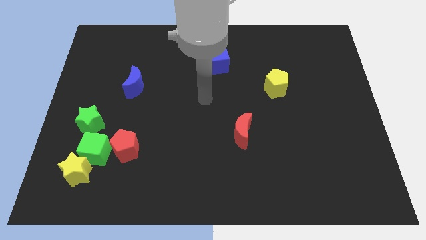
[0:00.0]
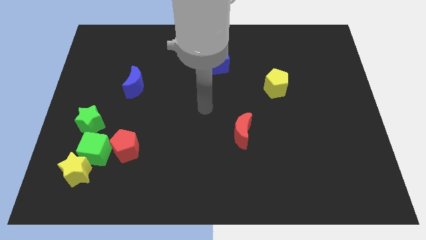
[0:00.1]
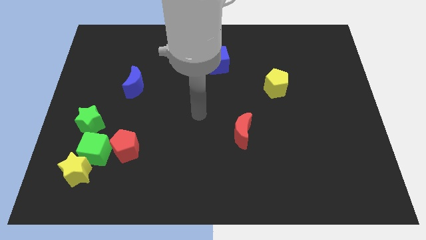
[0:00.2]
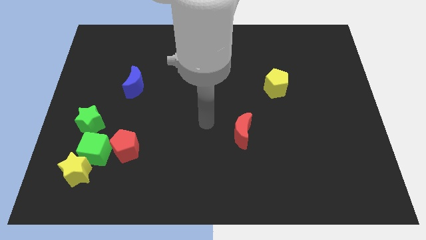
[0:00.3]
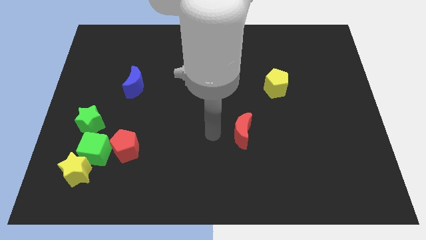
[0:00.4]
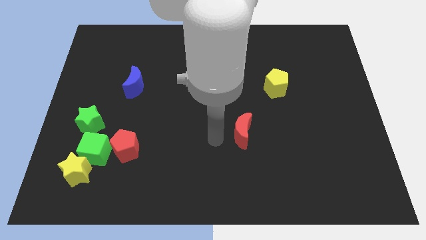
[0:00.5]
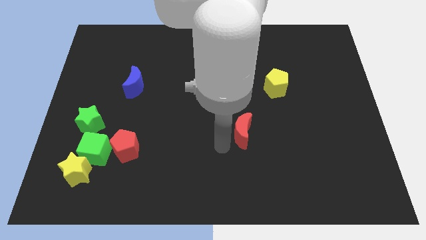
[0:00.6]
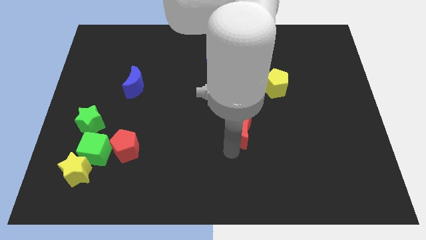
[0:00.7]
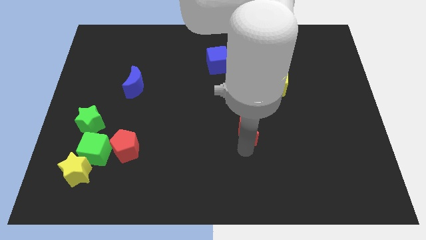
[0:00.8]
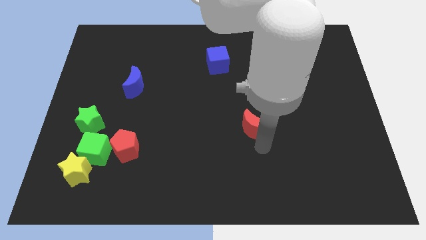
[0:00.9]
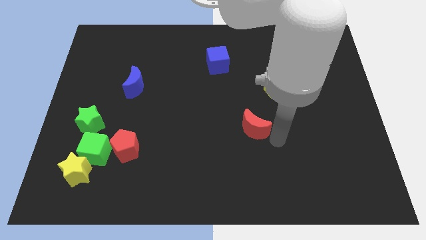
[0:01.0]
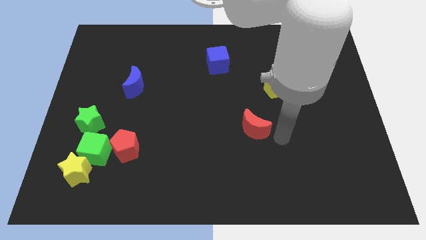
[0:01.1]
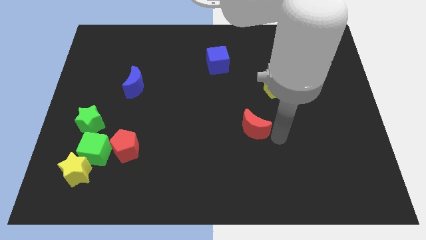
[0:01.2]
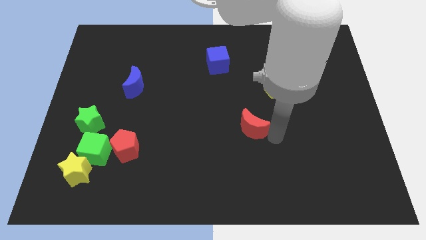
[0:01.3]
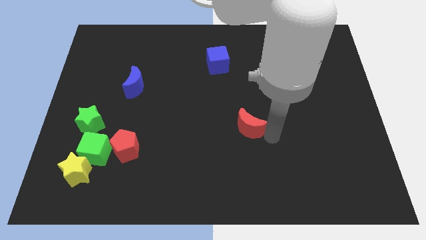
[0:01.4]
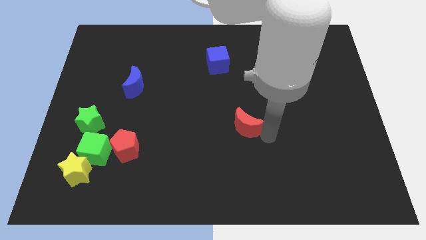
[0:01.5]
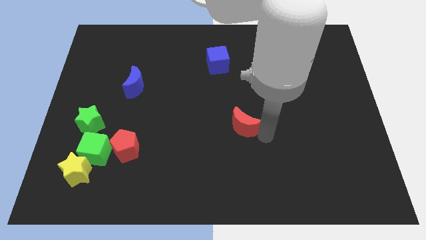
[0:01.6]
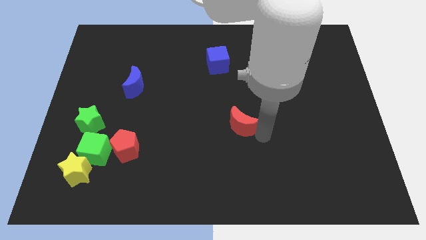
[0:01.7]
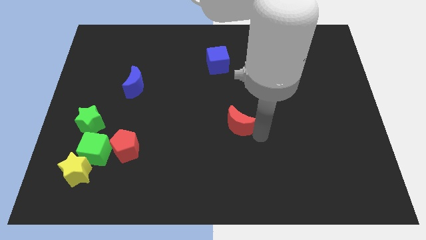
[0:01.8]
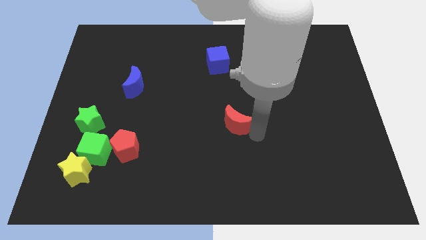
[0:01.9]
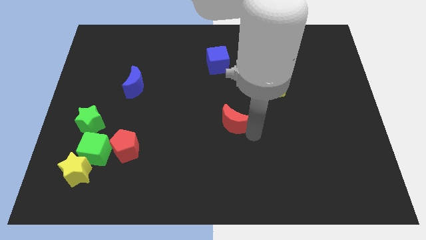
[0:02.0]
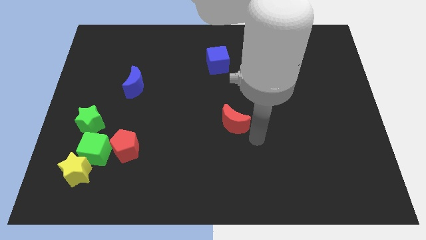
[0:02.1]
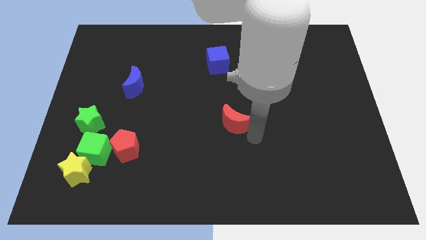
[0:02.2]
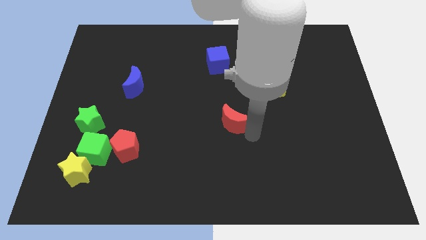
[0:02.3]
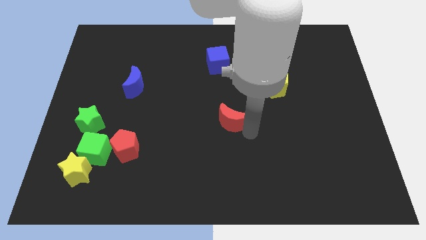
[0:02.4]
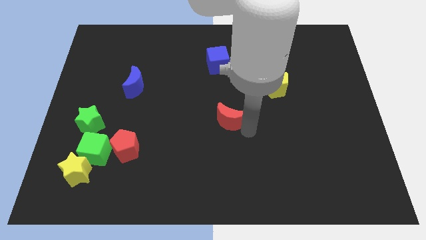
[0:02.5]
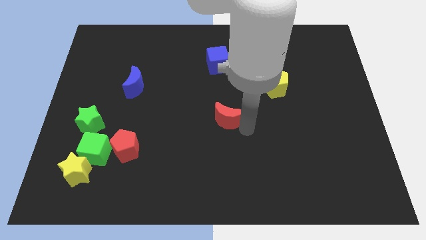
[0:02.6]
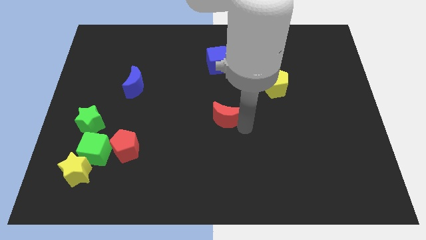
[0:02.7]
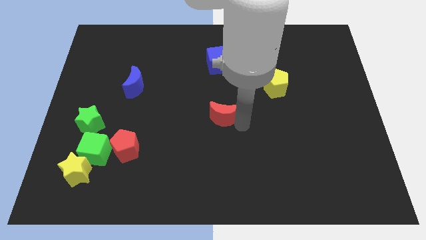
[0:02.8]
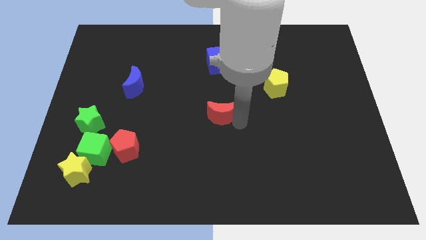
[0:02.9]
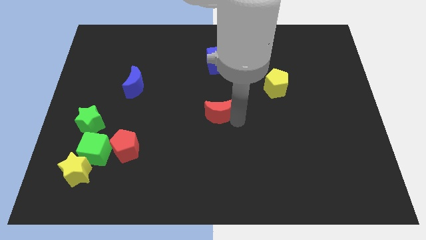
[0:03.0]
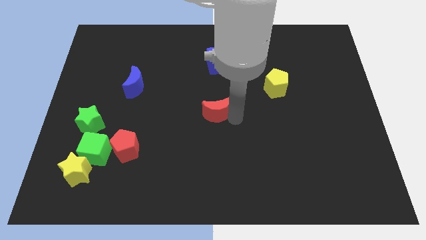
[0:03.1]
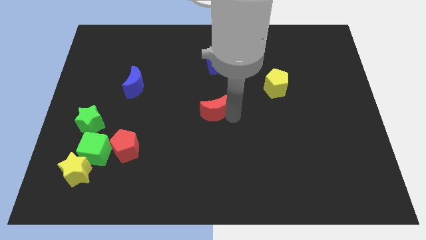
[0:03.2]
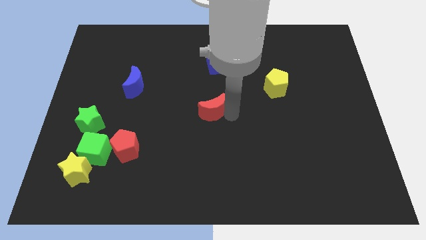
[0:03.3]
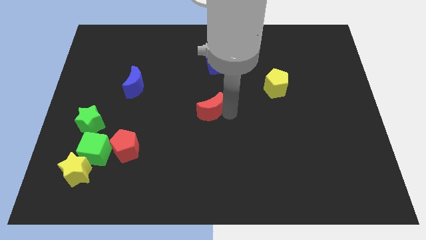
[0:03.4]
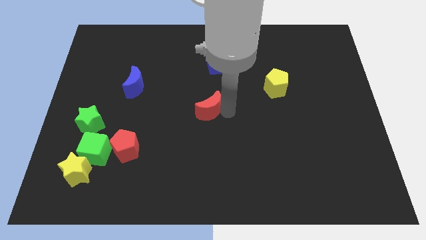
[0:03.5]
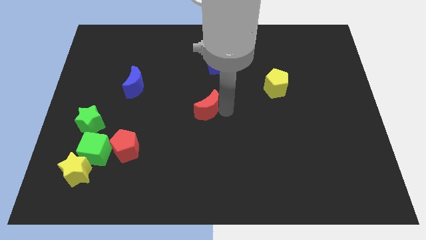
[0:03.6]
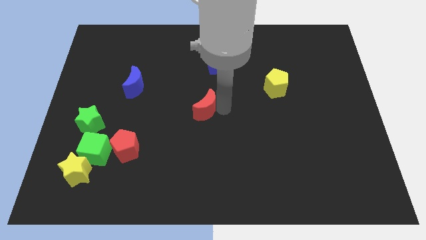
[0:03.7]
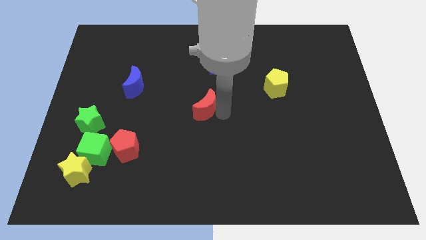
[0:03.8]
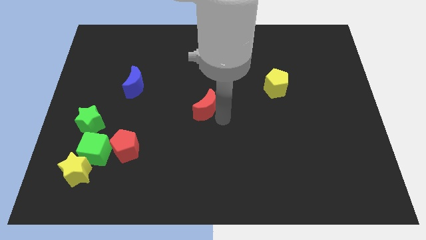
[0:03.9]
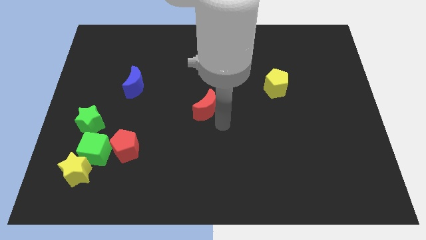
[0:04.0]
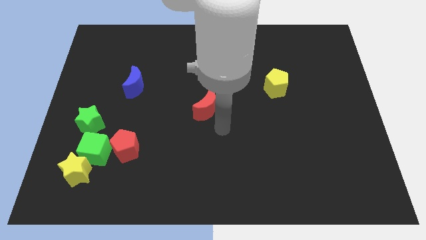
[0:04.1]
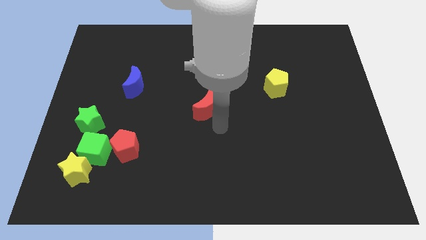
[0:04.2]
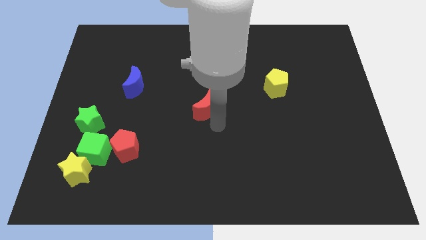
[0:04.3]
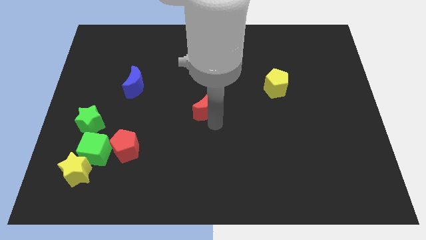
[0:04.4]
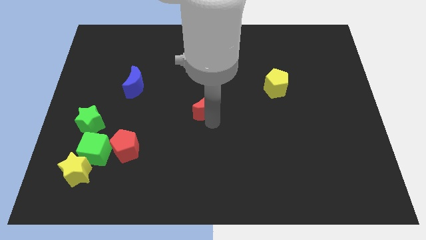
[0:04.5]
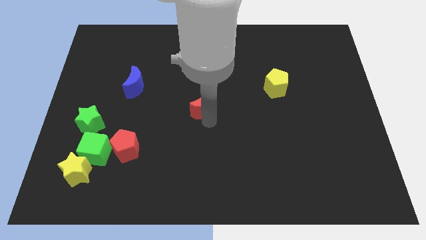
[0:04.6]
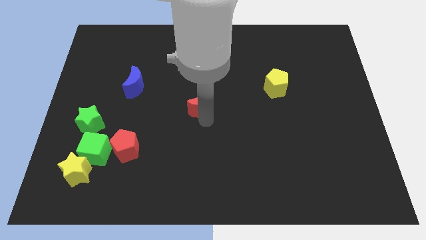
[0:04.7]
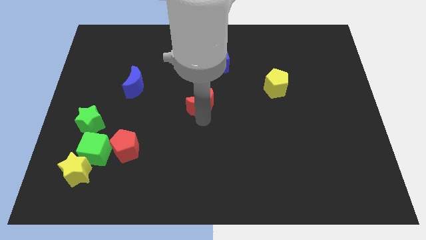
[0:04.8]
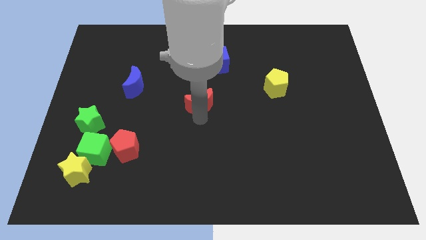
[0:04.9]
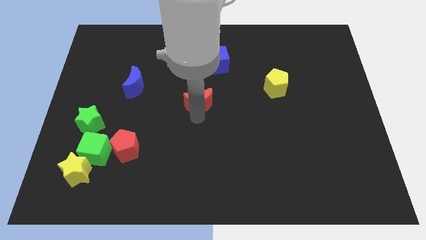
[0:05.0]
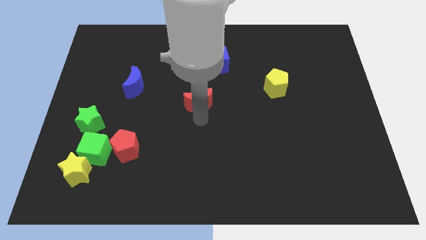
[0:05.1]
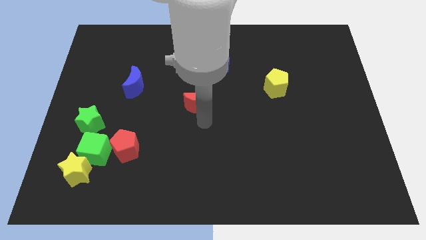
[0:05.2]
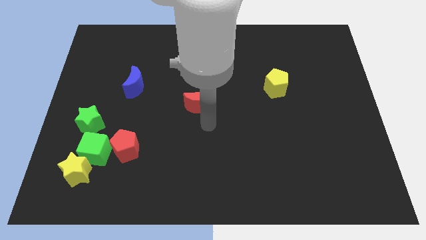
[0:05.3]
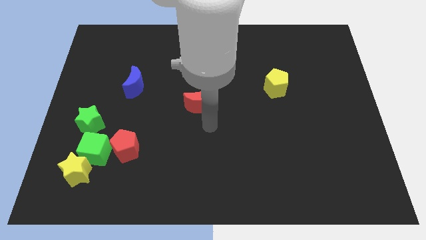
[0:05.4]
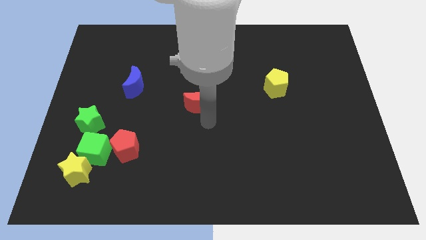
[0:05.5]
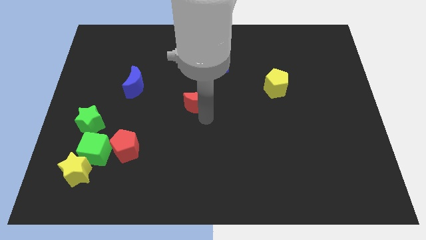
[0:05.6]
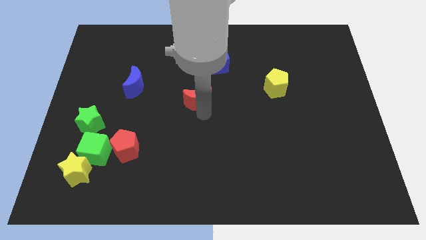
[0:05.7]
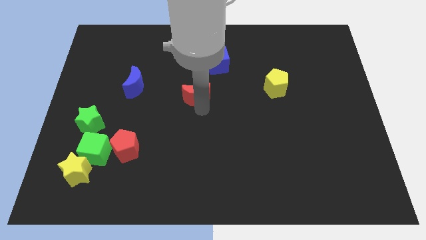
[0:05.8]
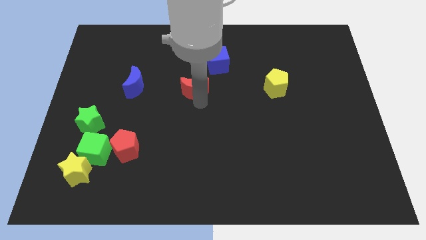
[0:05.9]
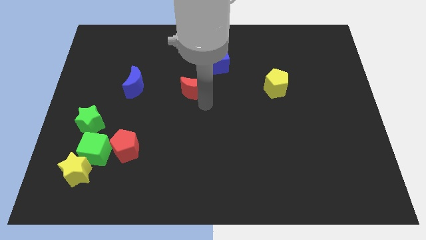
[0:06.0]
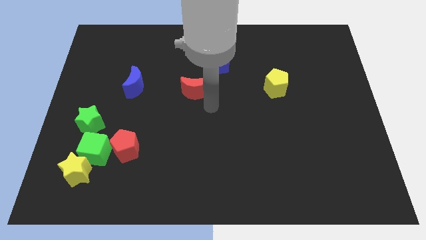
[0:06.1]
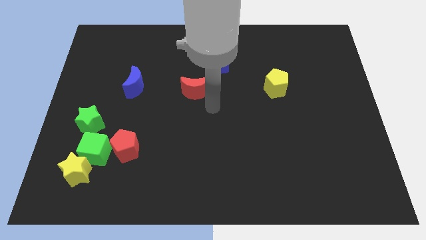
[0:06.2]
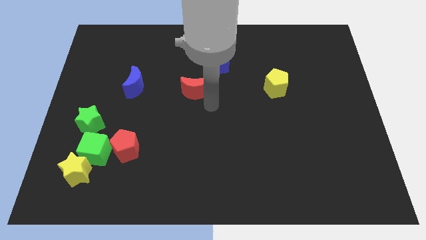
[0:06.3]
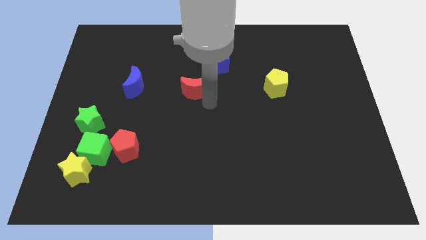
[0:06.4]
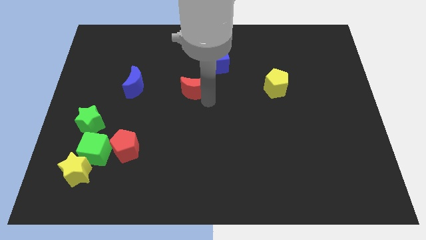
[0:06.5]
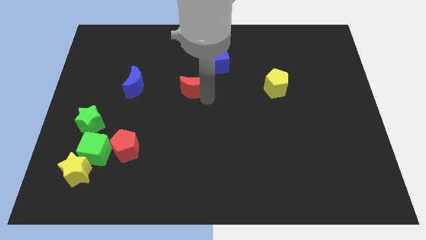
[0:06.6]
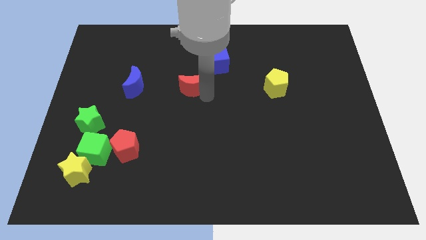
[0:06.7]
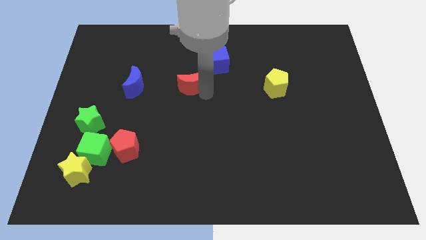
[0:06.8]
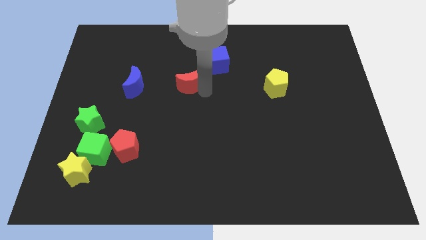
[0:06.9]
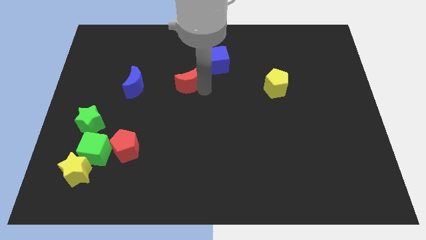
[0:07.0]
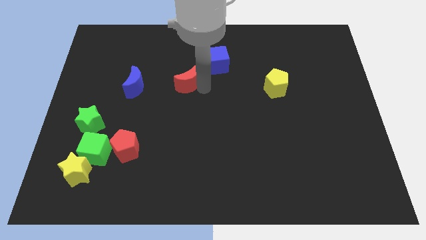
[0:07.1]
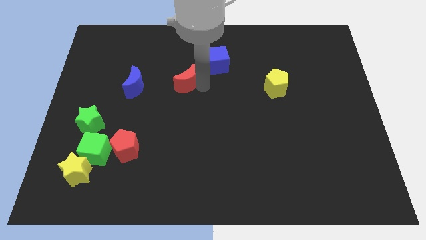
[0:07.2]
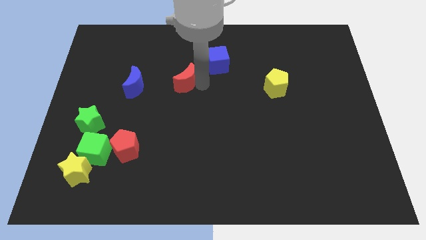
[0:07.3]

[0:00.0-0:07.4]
slide the red moon diagonally up and to the left

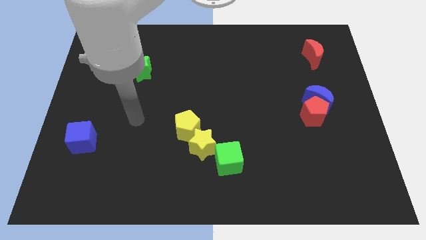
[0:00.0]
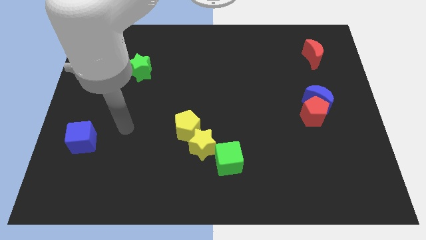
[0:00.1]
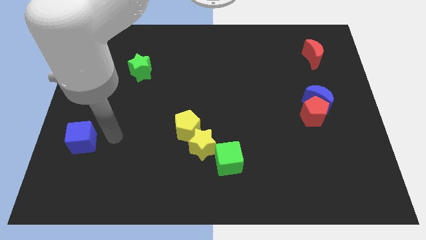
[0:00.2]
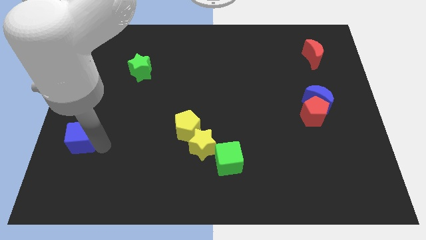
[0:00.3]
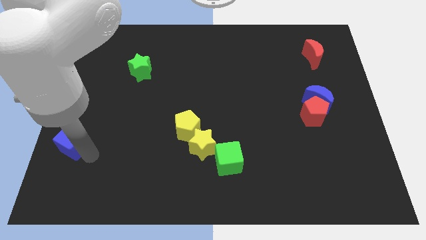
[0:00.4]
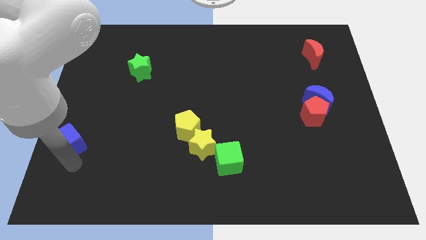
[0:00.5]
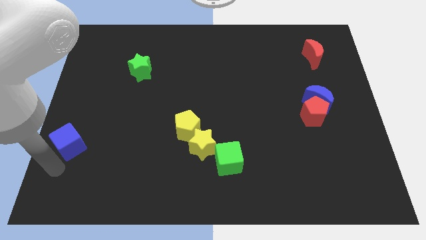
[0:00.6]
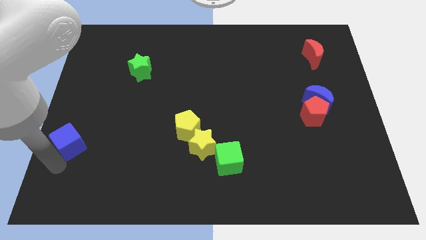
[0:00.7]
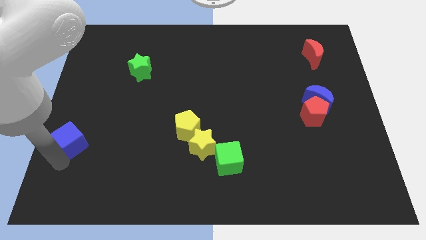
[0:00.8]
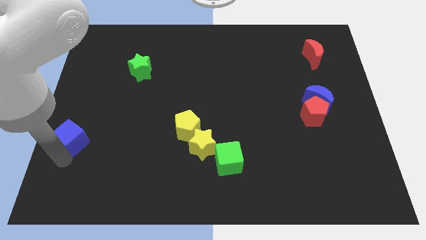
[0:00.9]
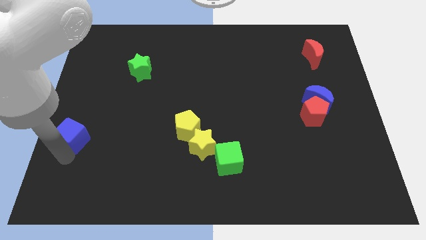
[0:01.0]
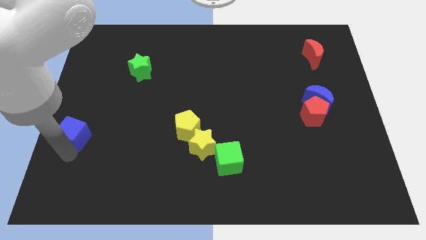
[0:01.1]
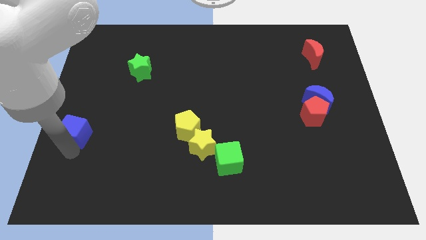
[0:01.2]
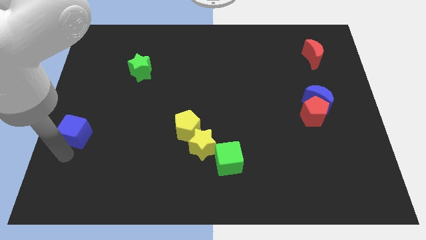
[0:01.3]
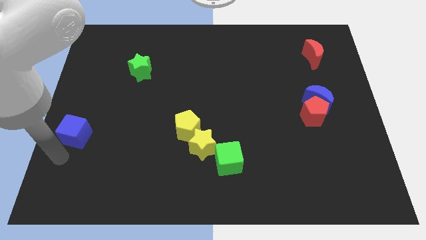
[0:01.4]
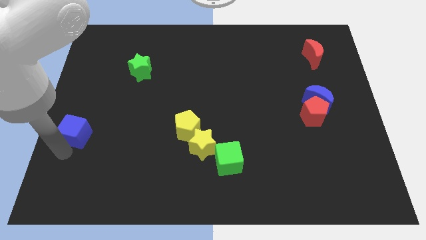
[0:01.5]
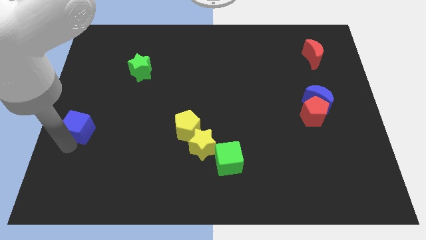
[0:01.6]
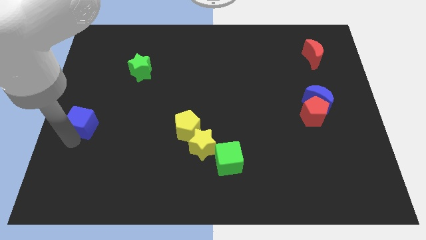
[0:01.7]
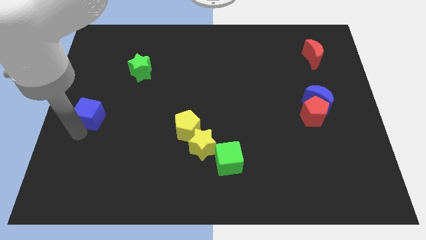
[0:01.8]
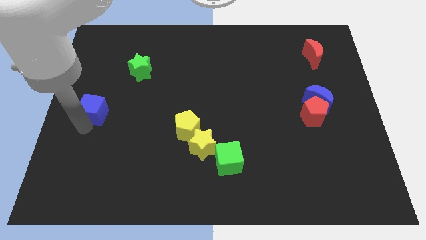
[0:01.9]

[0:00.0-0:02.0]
move the blue cube up a little bit
